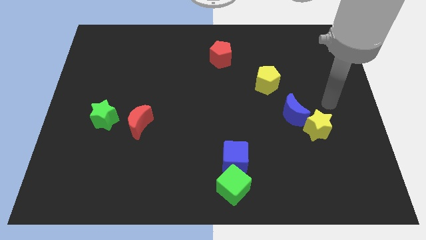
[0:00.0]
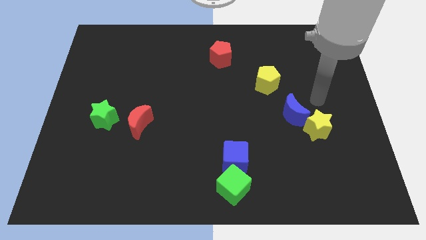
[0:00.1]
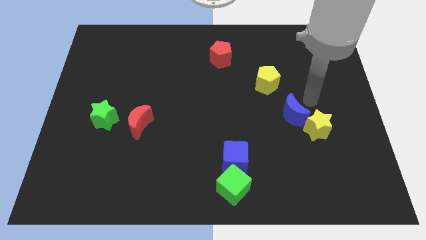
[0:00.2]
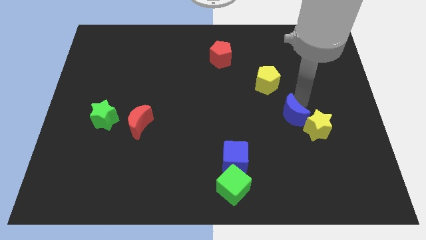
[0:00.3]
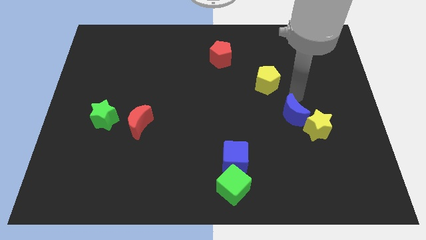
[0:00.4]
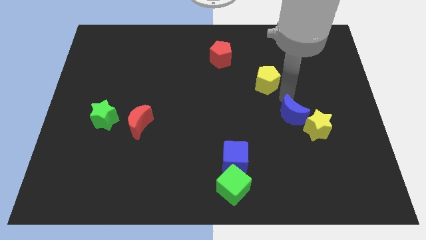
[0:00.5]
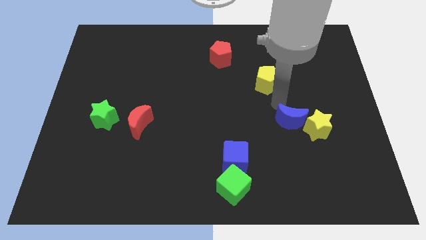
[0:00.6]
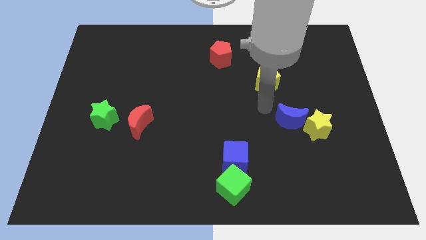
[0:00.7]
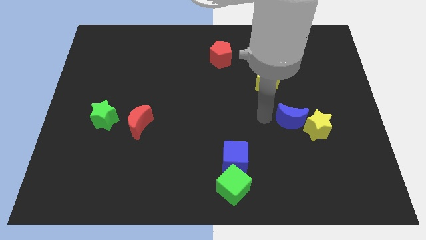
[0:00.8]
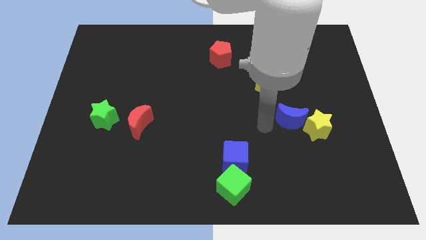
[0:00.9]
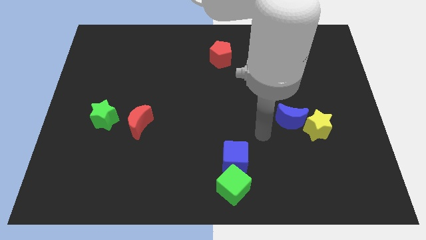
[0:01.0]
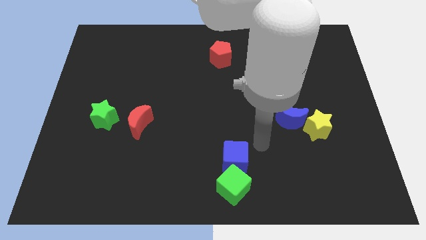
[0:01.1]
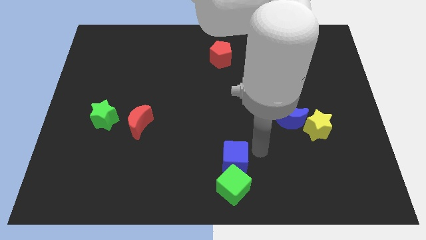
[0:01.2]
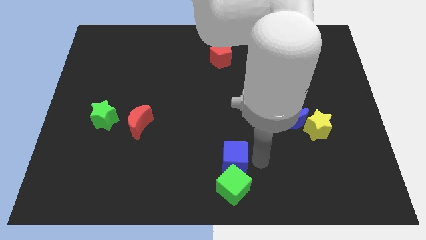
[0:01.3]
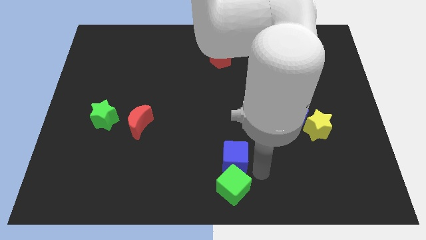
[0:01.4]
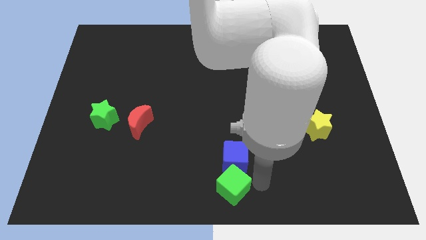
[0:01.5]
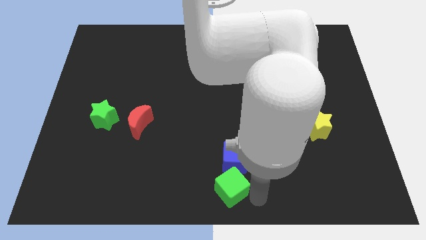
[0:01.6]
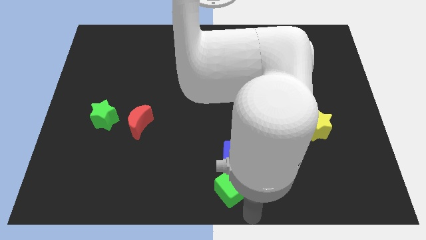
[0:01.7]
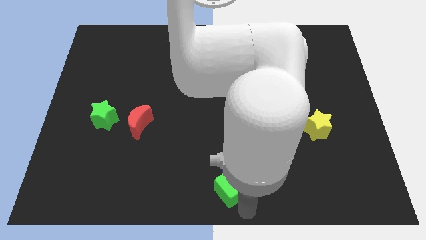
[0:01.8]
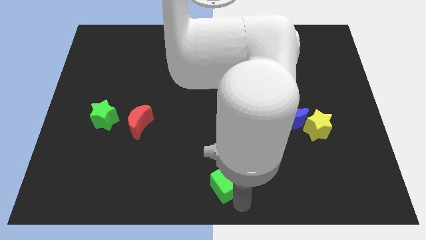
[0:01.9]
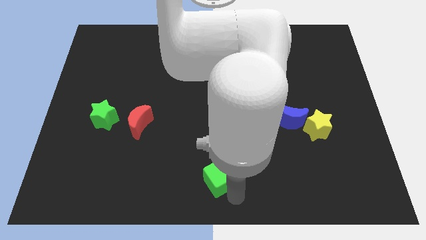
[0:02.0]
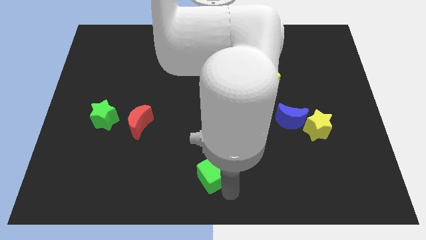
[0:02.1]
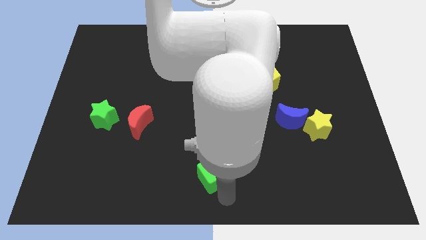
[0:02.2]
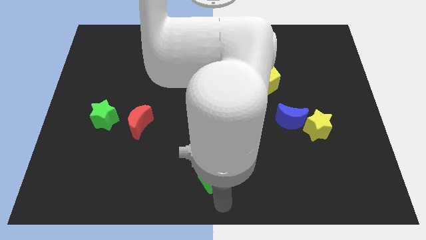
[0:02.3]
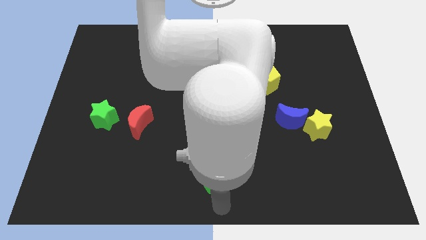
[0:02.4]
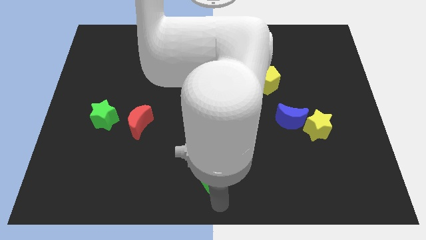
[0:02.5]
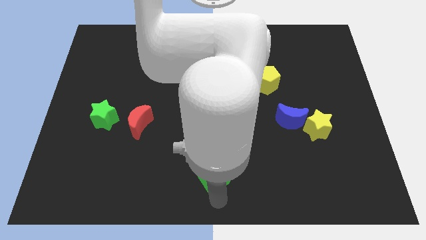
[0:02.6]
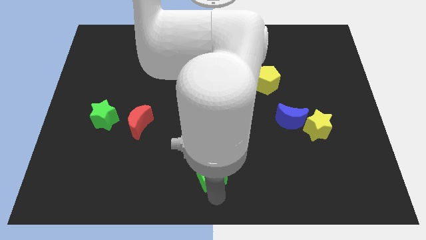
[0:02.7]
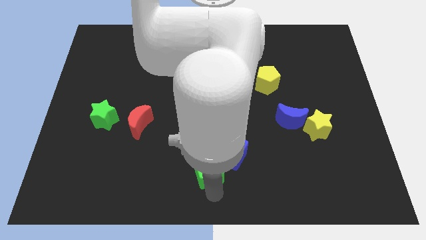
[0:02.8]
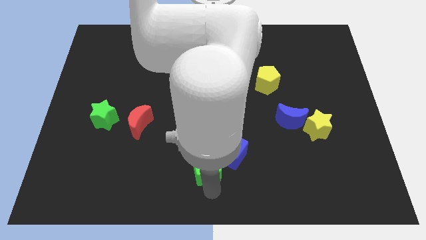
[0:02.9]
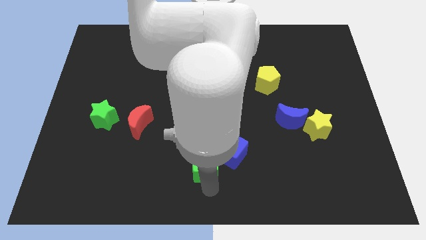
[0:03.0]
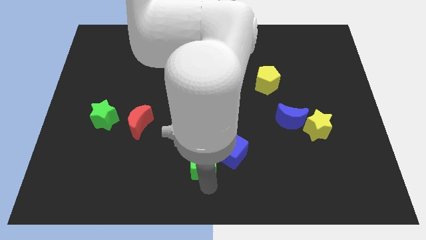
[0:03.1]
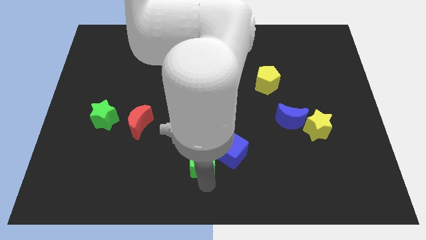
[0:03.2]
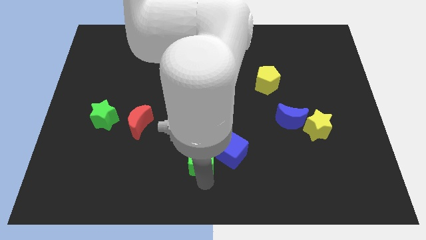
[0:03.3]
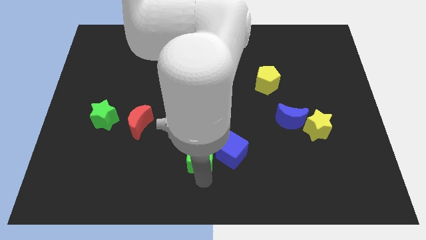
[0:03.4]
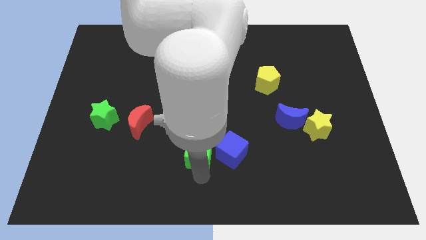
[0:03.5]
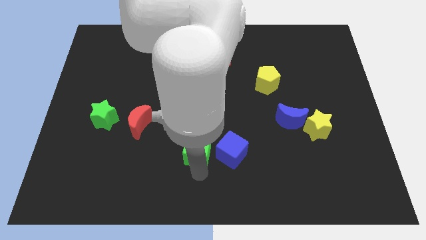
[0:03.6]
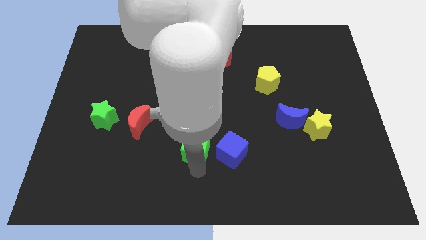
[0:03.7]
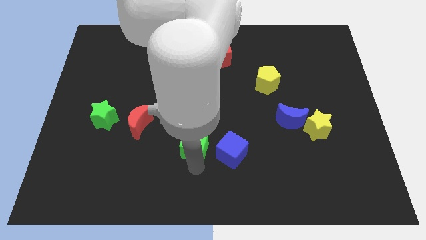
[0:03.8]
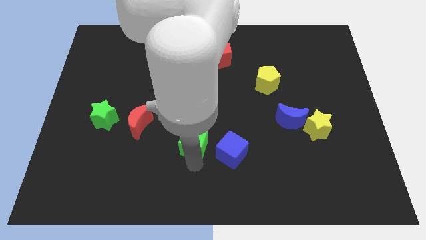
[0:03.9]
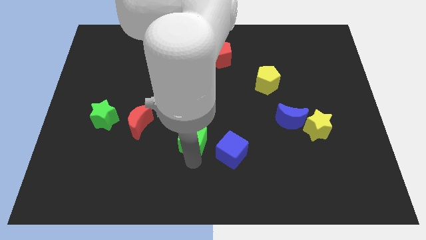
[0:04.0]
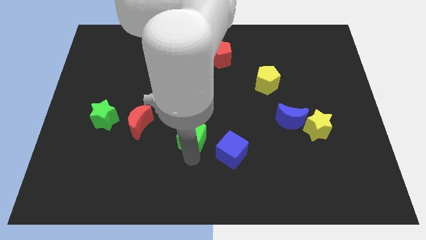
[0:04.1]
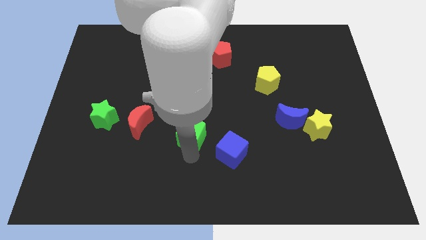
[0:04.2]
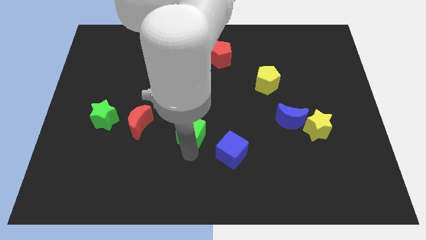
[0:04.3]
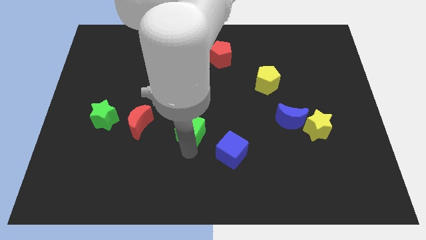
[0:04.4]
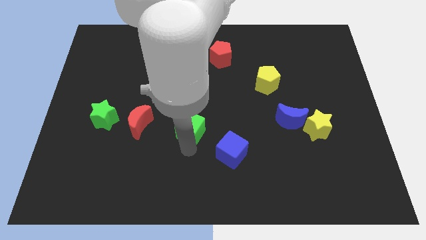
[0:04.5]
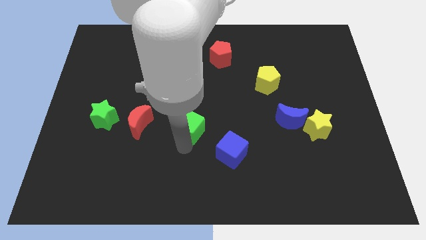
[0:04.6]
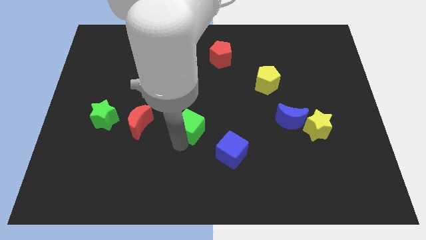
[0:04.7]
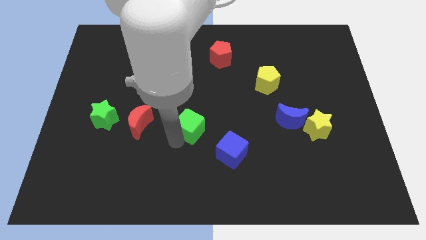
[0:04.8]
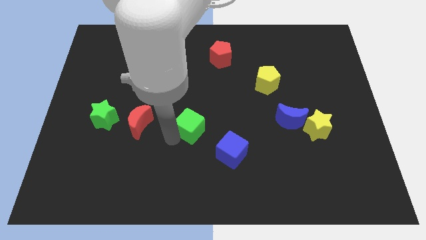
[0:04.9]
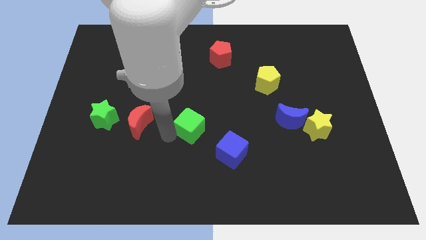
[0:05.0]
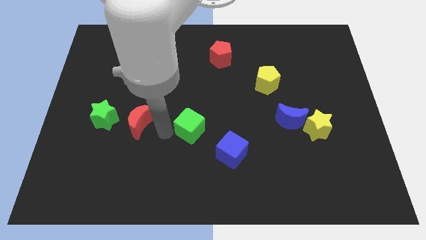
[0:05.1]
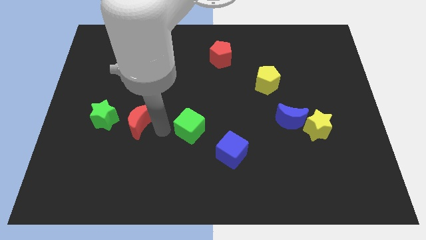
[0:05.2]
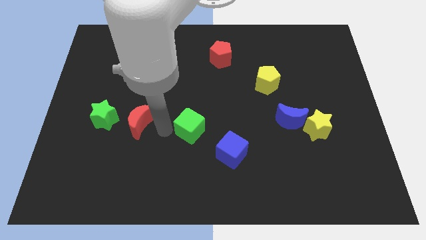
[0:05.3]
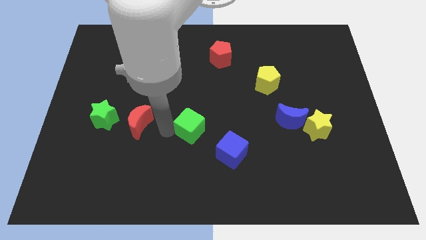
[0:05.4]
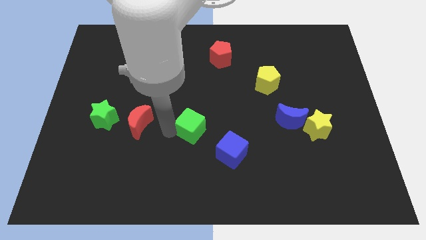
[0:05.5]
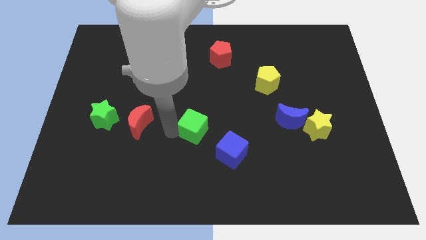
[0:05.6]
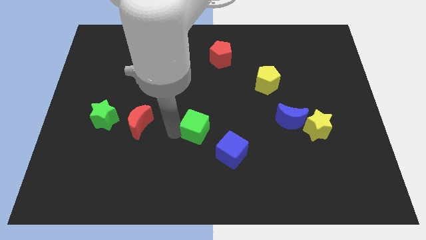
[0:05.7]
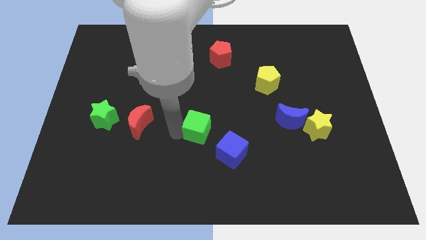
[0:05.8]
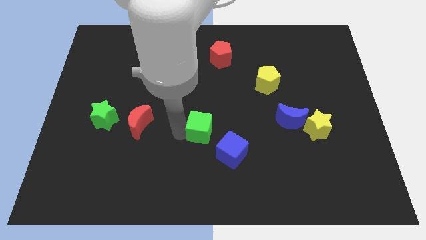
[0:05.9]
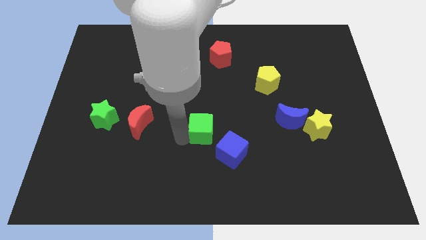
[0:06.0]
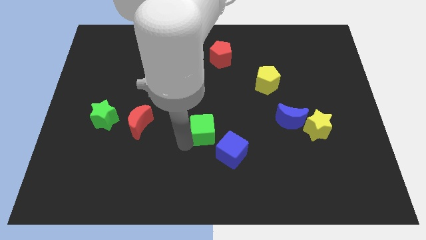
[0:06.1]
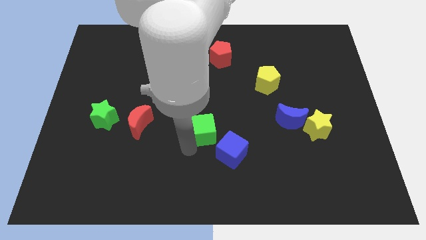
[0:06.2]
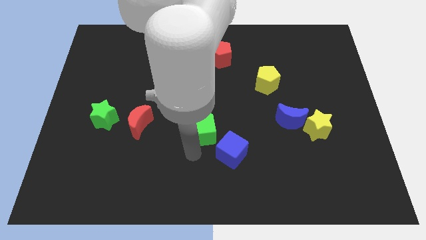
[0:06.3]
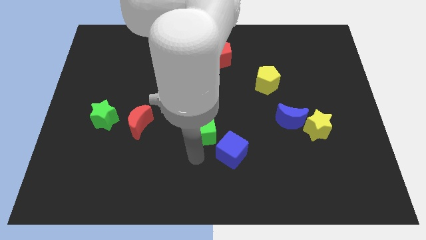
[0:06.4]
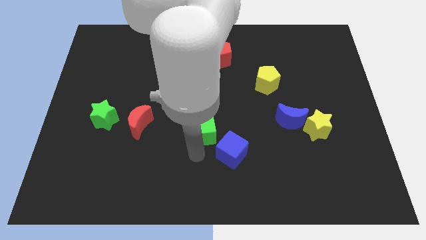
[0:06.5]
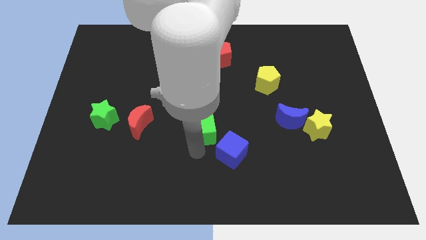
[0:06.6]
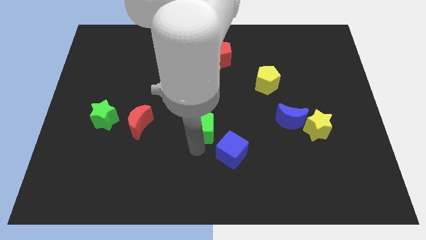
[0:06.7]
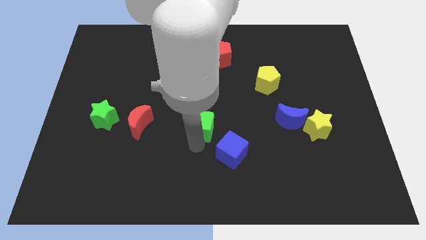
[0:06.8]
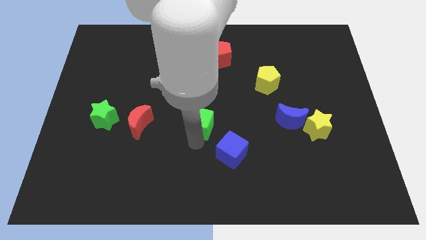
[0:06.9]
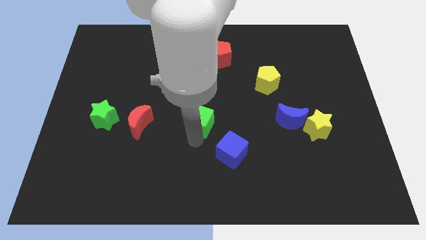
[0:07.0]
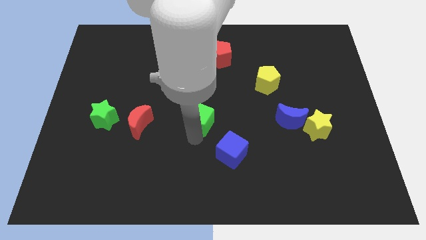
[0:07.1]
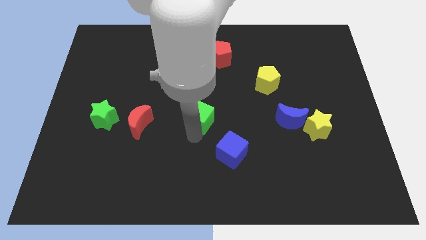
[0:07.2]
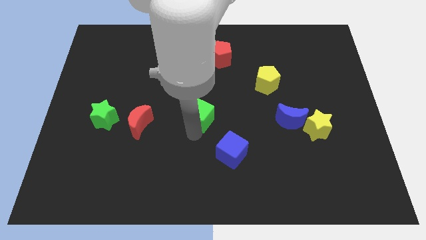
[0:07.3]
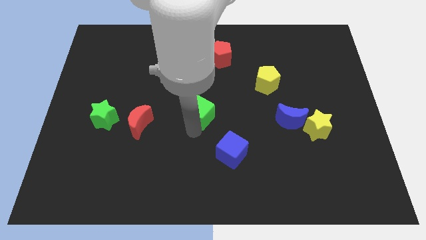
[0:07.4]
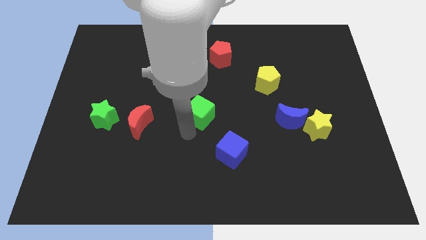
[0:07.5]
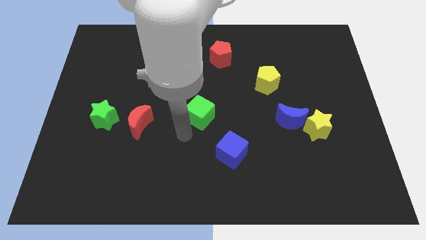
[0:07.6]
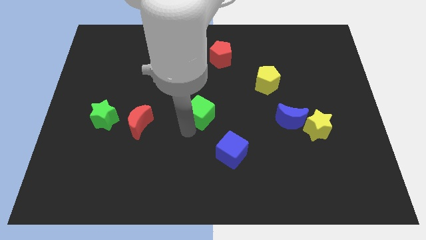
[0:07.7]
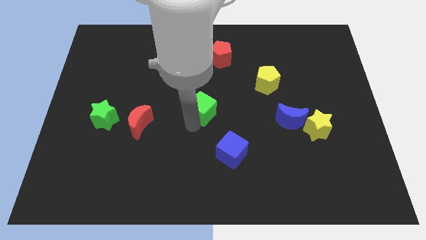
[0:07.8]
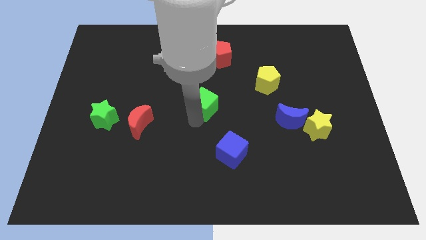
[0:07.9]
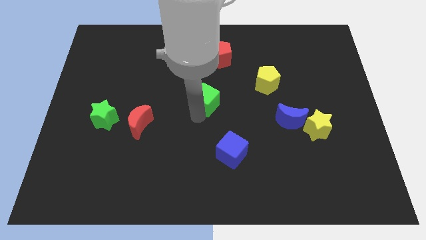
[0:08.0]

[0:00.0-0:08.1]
slide the green cube upwards

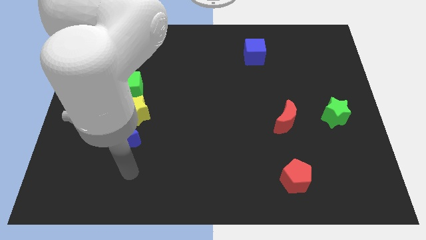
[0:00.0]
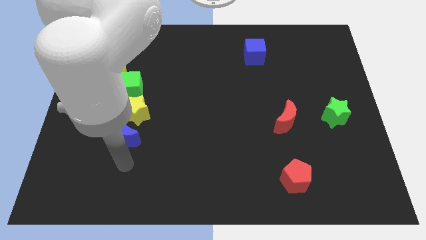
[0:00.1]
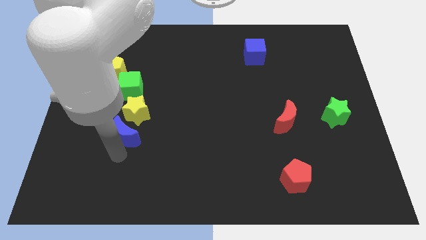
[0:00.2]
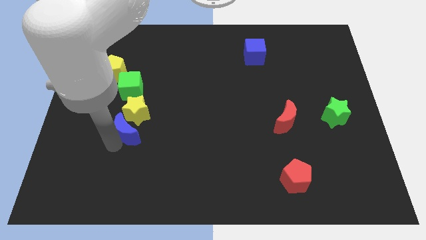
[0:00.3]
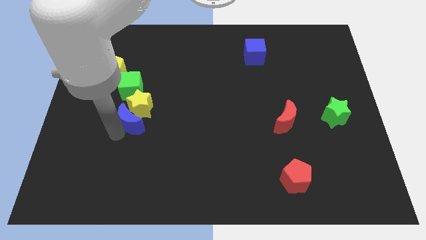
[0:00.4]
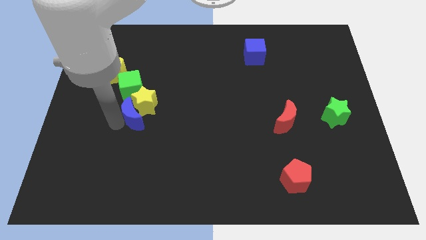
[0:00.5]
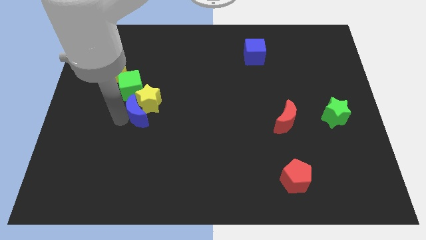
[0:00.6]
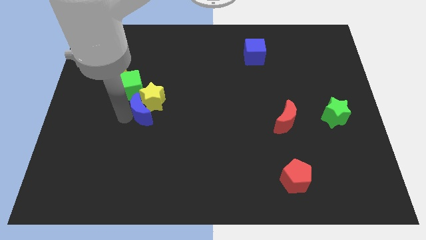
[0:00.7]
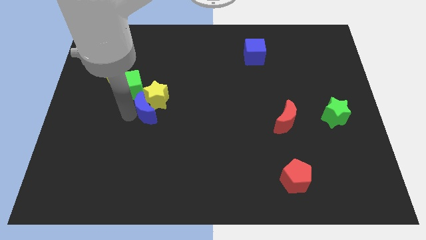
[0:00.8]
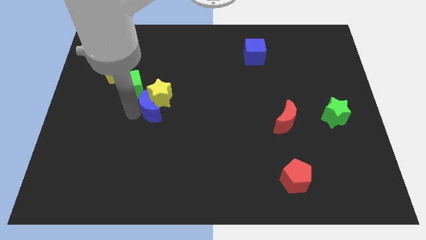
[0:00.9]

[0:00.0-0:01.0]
move the yellow star upwards and to the right diagonally a bit
